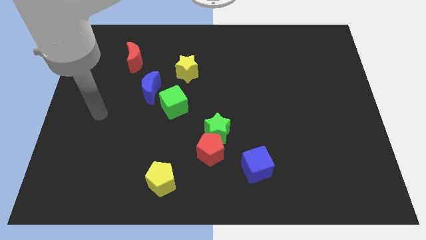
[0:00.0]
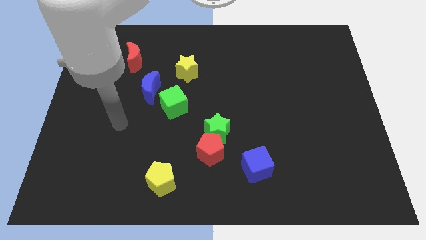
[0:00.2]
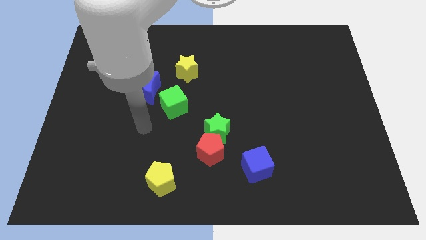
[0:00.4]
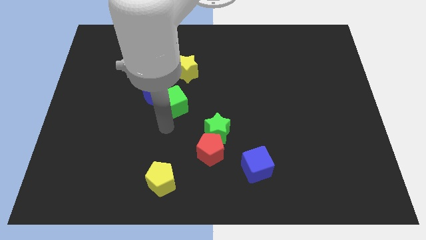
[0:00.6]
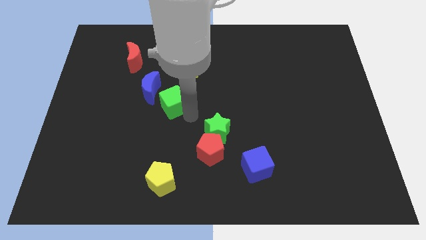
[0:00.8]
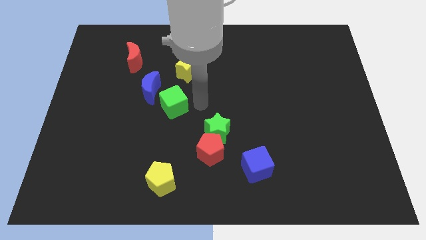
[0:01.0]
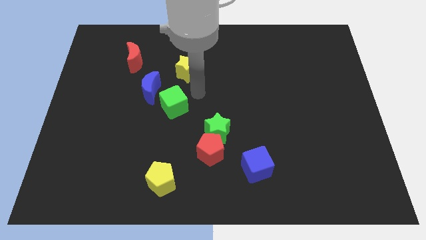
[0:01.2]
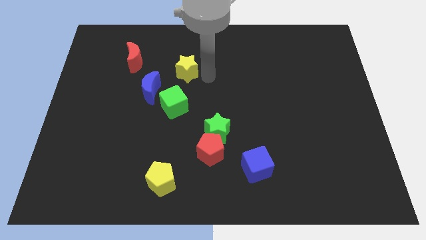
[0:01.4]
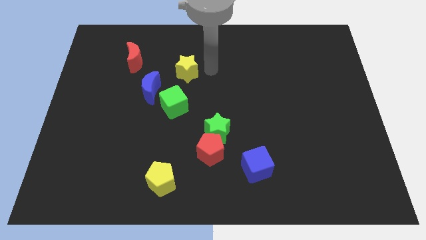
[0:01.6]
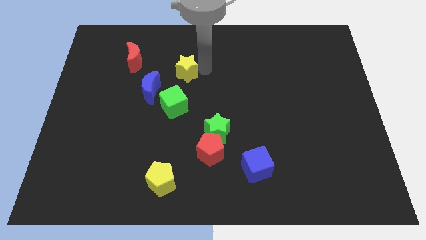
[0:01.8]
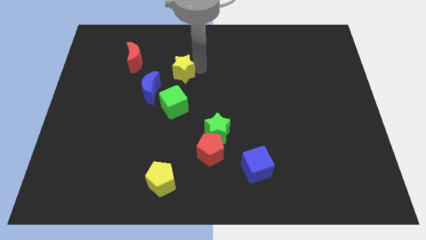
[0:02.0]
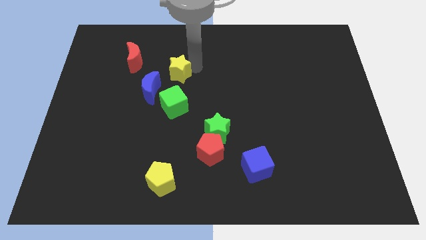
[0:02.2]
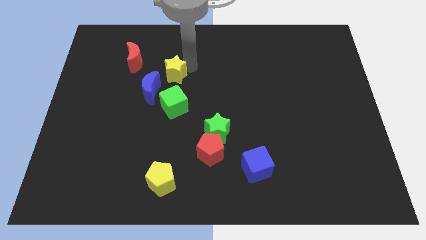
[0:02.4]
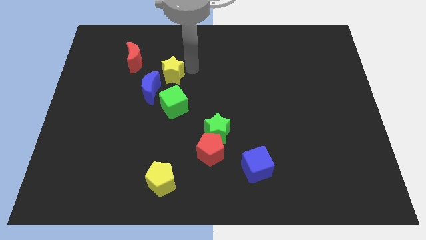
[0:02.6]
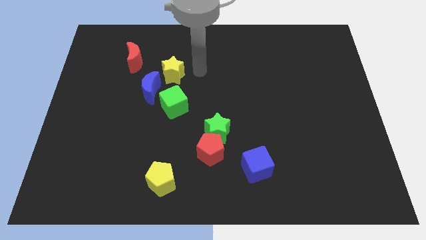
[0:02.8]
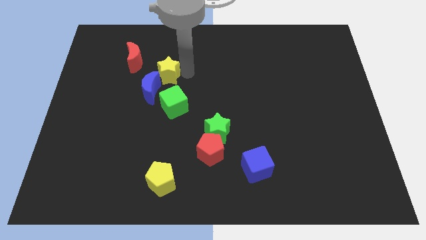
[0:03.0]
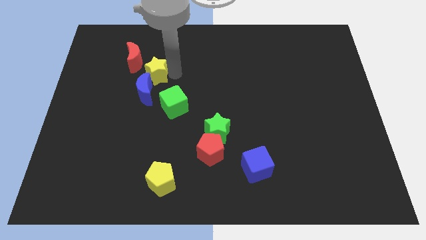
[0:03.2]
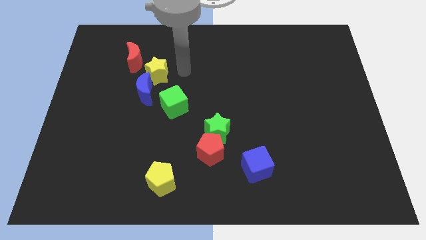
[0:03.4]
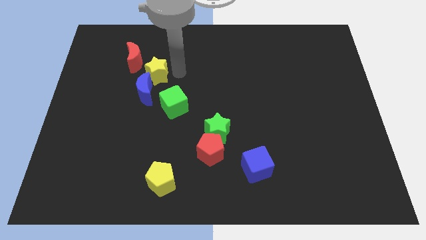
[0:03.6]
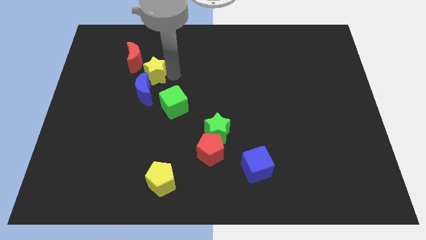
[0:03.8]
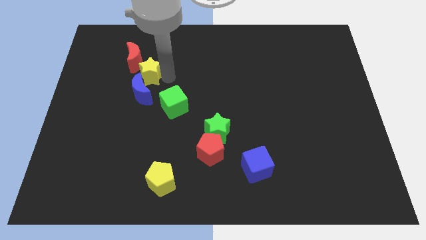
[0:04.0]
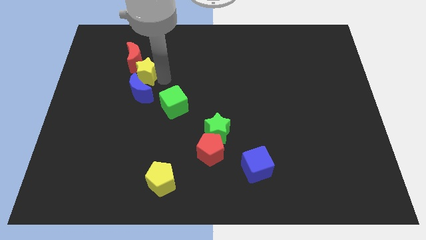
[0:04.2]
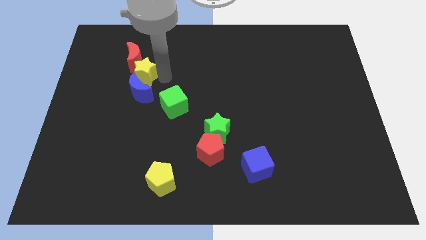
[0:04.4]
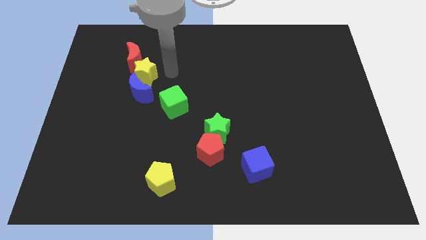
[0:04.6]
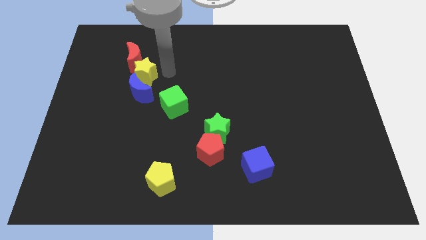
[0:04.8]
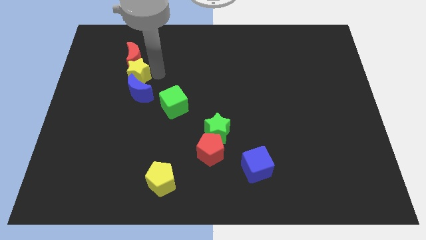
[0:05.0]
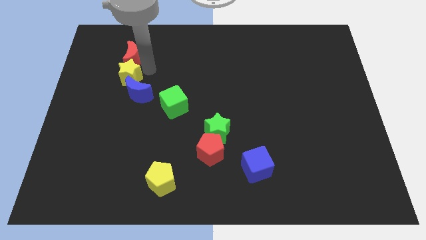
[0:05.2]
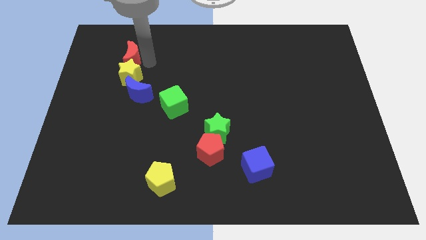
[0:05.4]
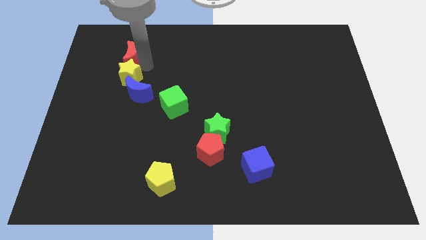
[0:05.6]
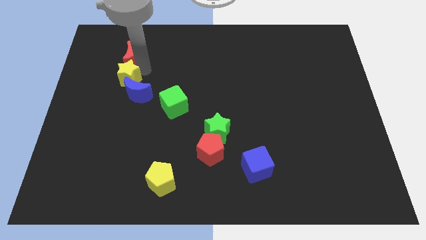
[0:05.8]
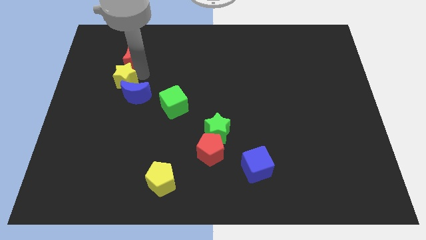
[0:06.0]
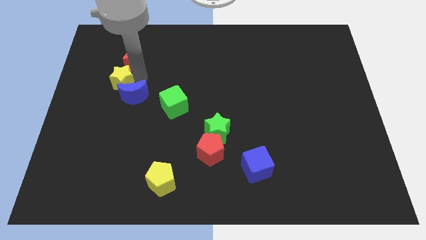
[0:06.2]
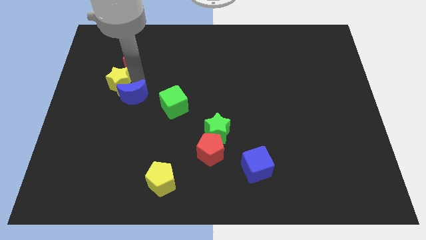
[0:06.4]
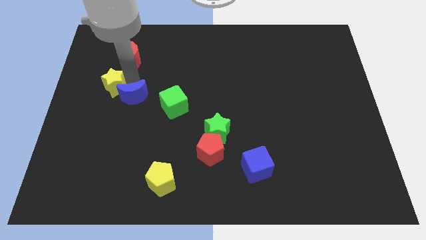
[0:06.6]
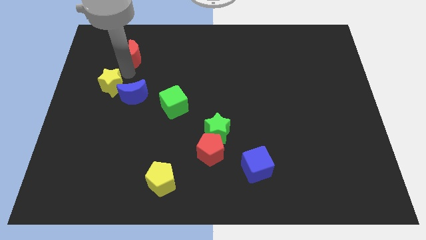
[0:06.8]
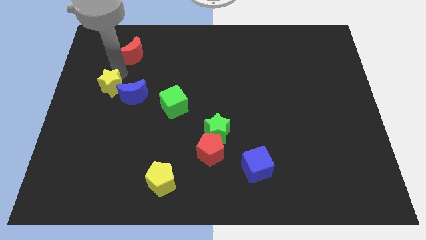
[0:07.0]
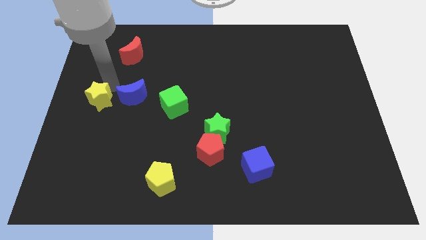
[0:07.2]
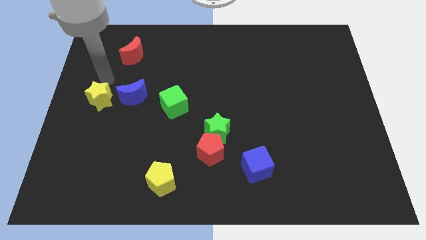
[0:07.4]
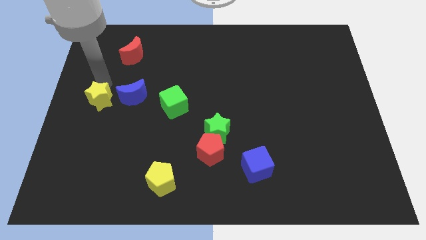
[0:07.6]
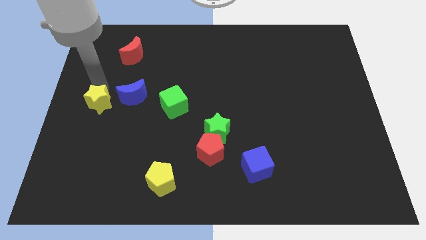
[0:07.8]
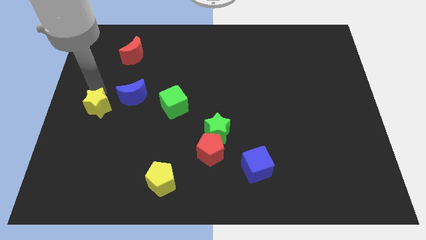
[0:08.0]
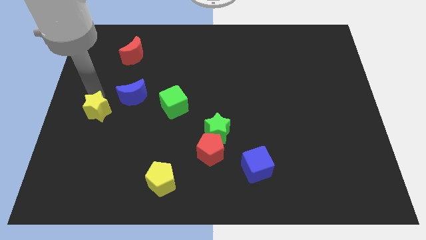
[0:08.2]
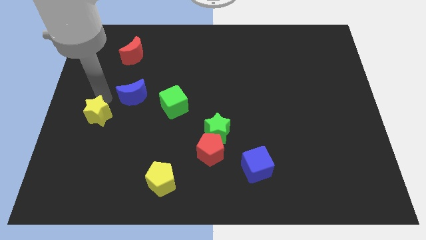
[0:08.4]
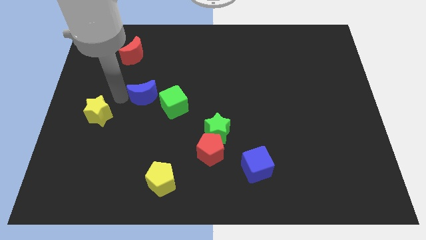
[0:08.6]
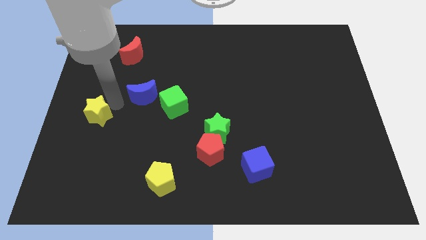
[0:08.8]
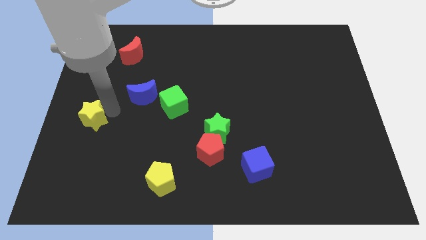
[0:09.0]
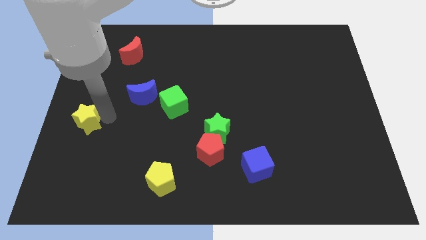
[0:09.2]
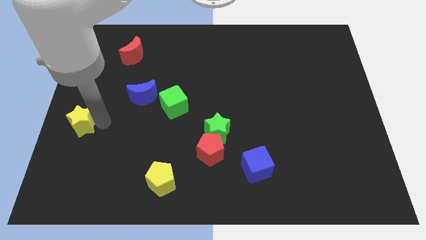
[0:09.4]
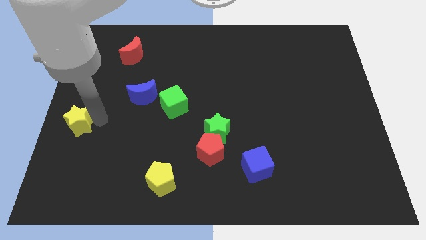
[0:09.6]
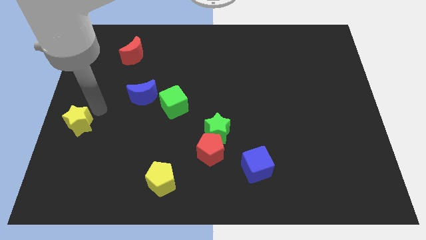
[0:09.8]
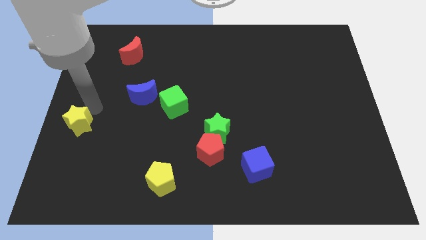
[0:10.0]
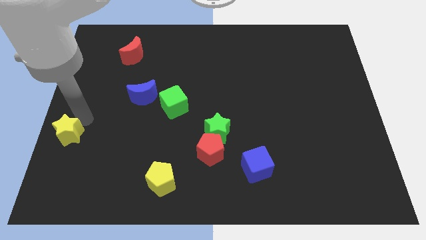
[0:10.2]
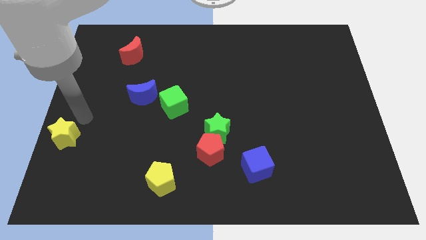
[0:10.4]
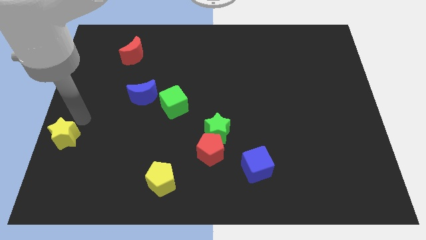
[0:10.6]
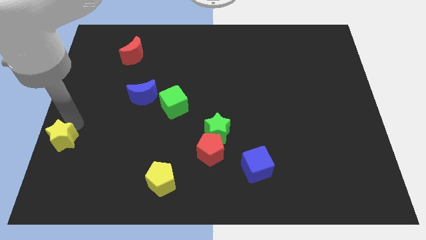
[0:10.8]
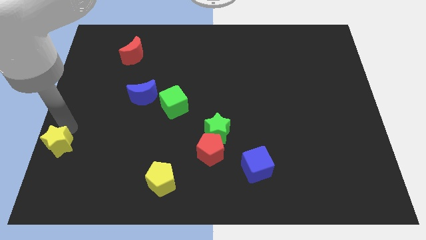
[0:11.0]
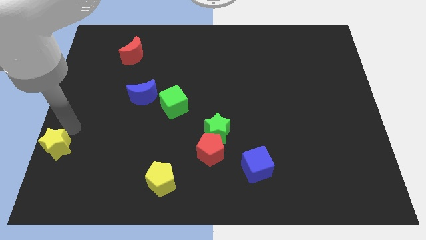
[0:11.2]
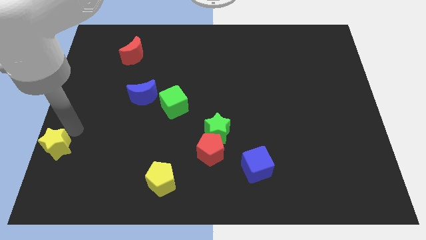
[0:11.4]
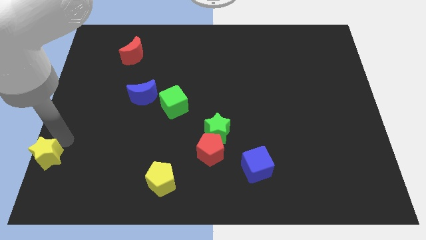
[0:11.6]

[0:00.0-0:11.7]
put the yellow star to the lower left corner

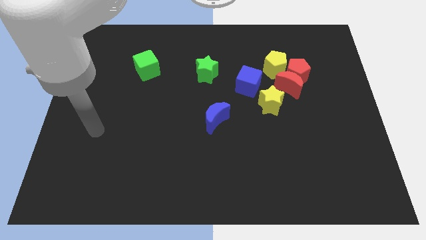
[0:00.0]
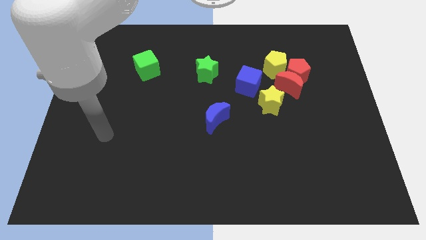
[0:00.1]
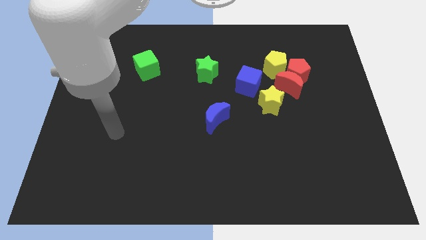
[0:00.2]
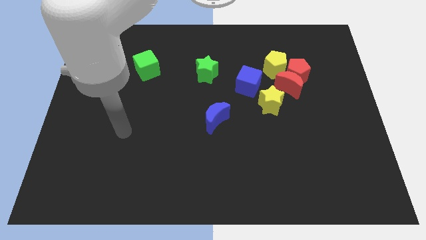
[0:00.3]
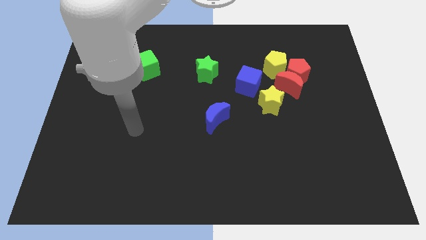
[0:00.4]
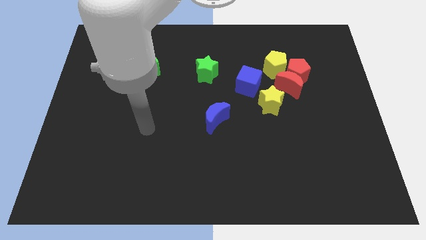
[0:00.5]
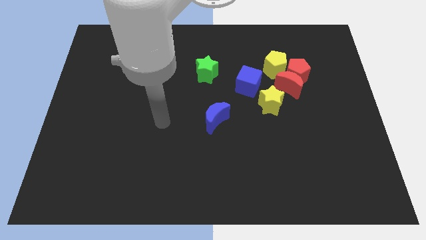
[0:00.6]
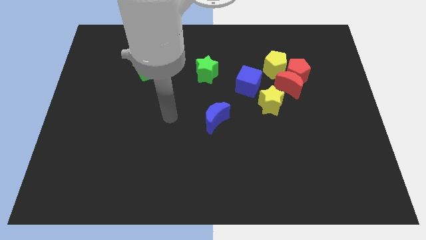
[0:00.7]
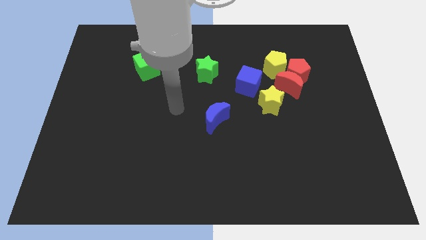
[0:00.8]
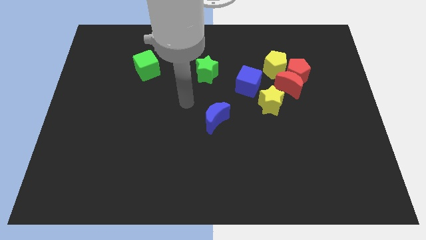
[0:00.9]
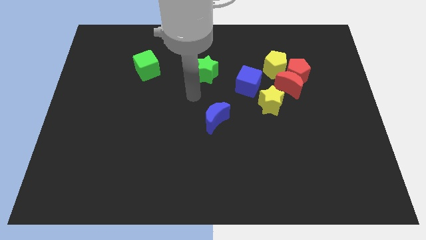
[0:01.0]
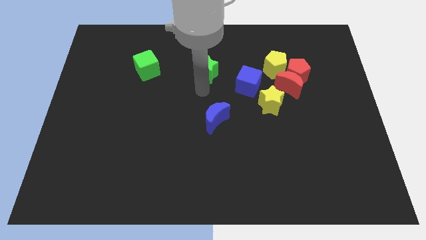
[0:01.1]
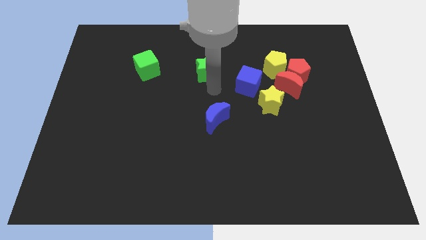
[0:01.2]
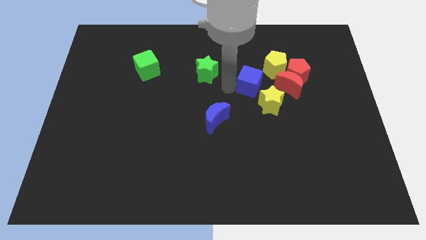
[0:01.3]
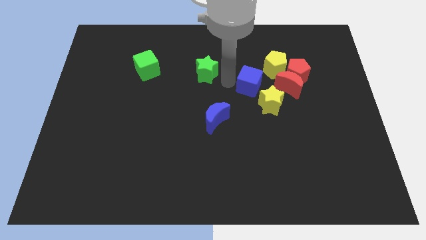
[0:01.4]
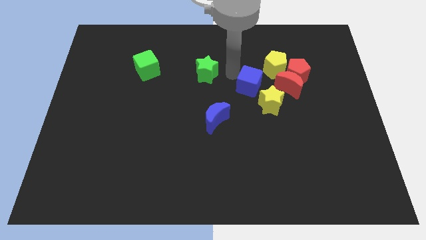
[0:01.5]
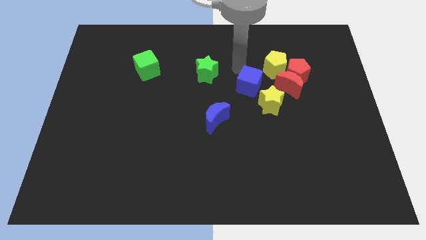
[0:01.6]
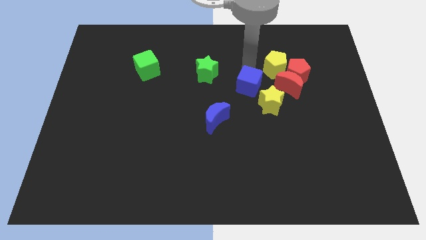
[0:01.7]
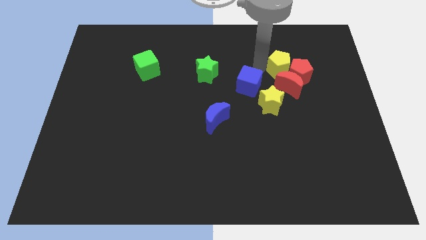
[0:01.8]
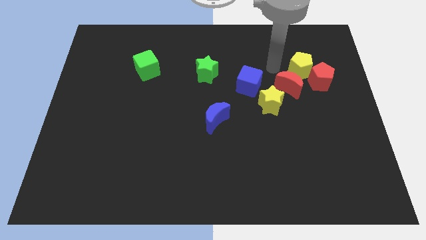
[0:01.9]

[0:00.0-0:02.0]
slide the red pentagon to the right side
